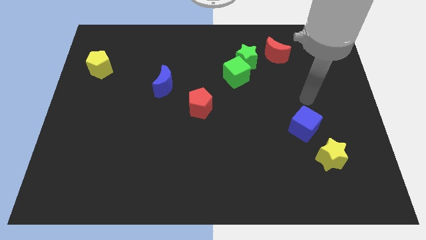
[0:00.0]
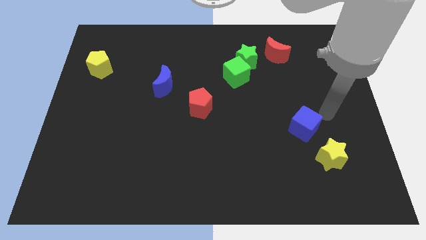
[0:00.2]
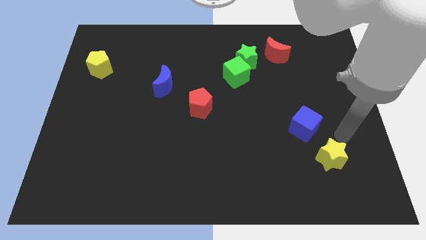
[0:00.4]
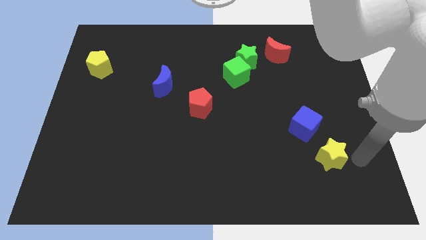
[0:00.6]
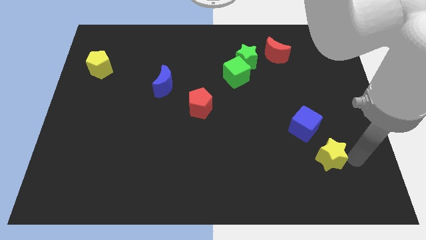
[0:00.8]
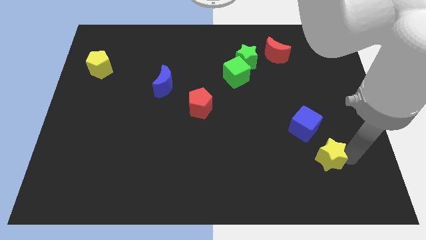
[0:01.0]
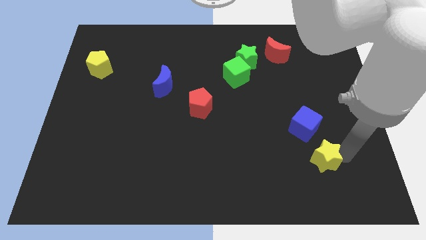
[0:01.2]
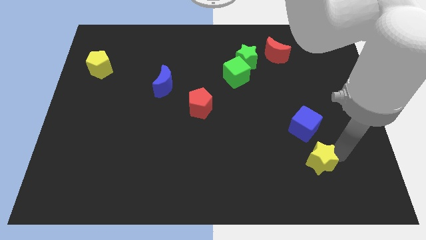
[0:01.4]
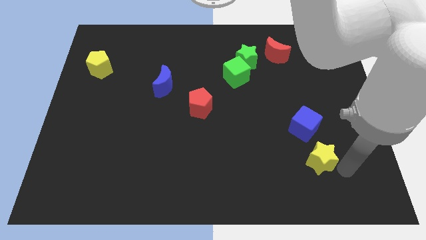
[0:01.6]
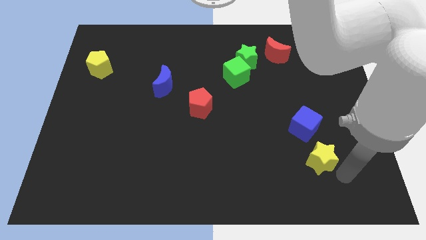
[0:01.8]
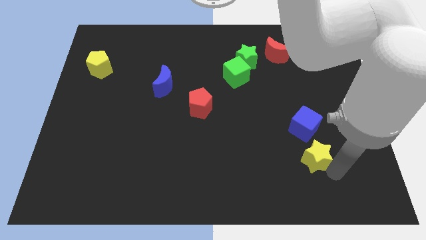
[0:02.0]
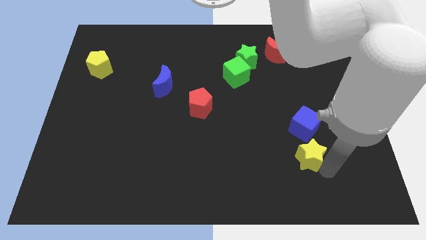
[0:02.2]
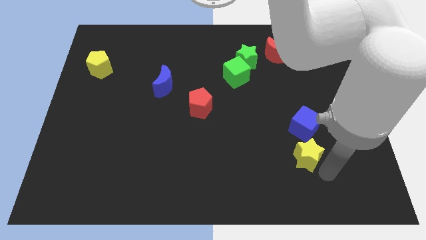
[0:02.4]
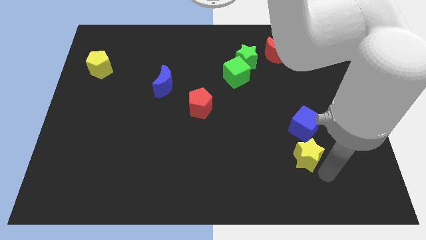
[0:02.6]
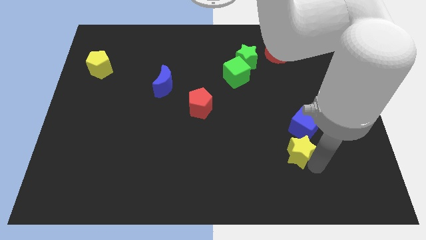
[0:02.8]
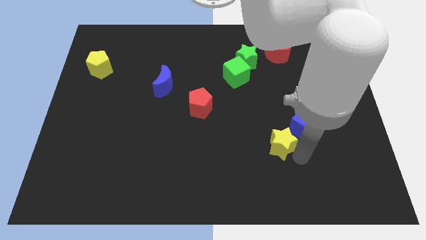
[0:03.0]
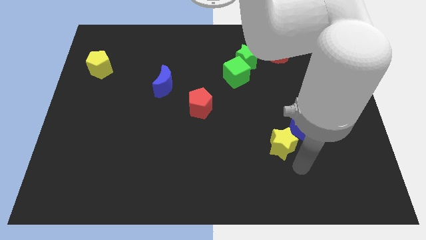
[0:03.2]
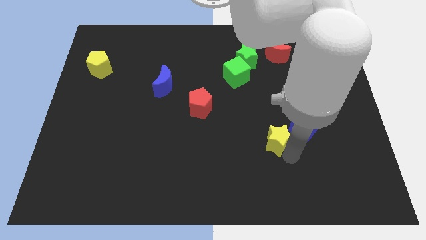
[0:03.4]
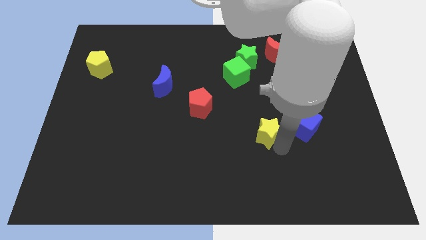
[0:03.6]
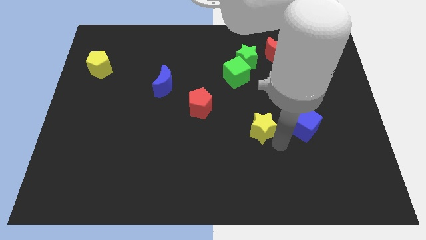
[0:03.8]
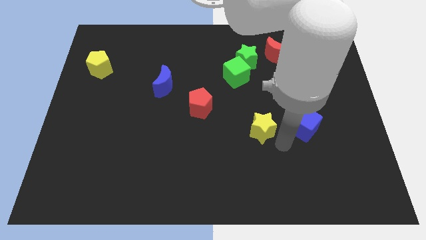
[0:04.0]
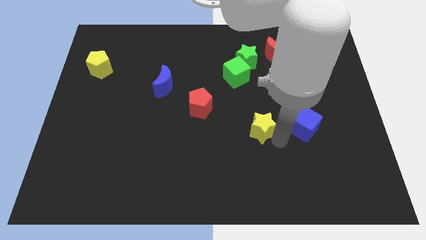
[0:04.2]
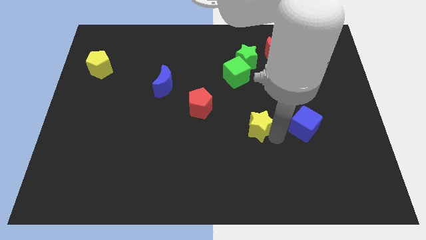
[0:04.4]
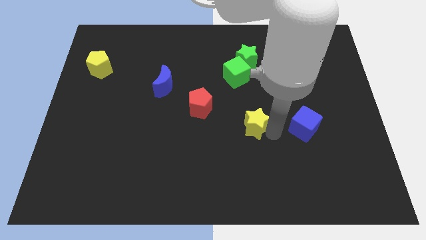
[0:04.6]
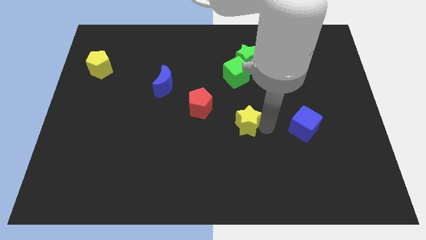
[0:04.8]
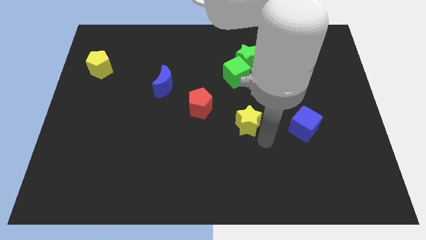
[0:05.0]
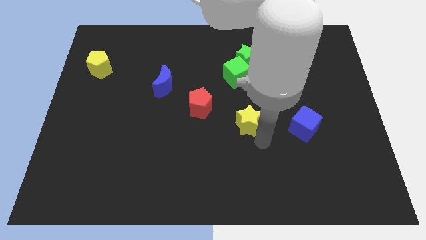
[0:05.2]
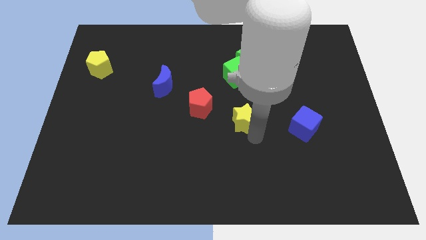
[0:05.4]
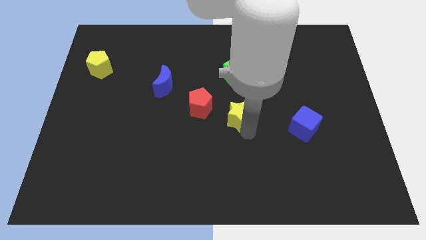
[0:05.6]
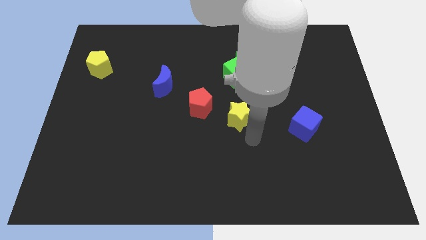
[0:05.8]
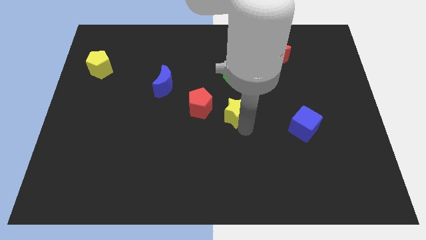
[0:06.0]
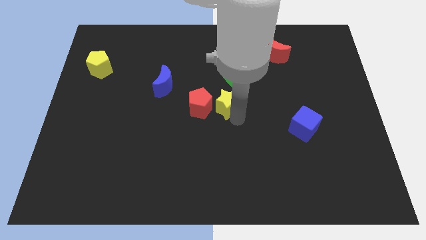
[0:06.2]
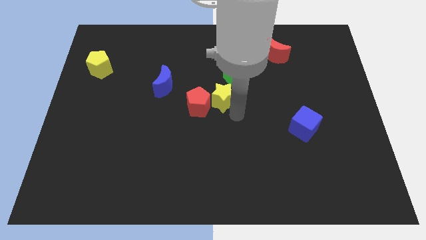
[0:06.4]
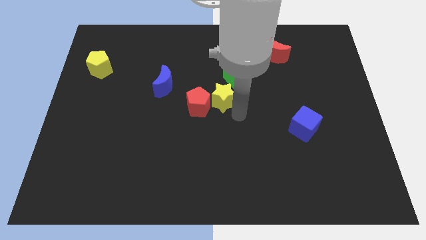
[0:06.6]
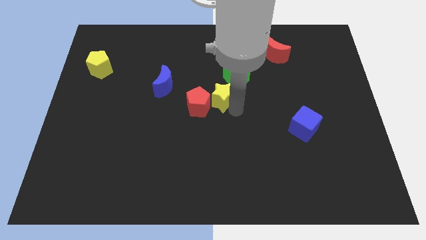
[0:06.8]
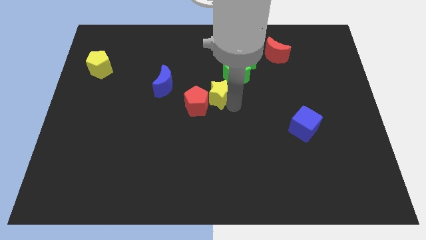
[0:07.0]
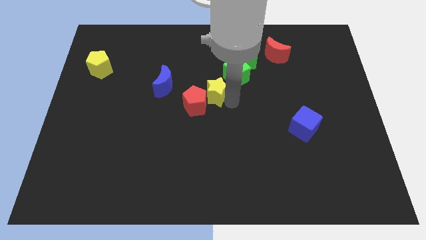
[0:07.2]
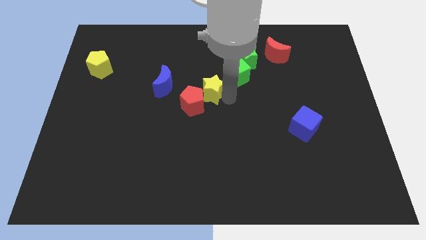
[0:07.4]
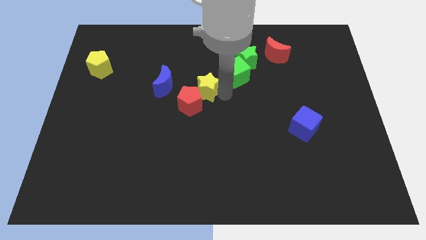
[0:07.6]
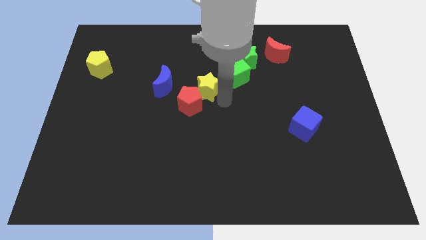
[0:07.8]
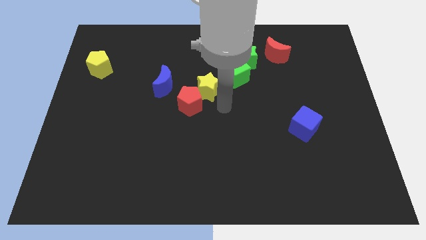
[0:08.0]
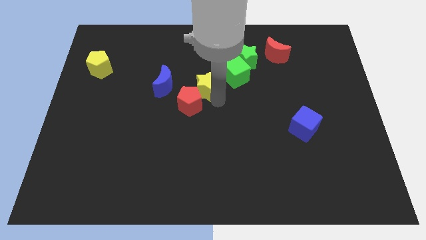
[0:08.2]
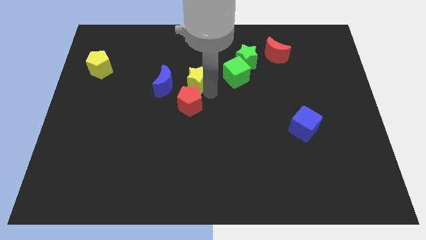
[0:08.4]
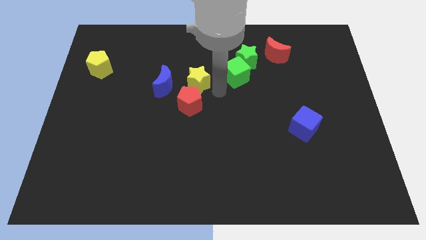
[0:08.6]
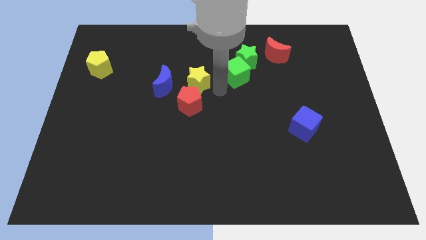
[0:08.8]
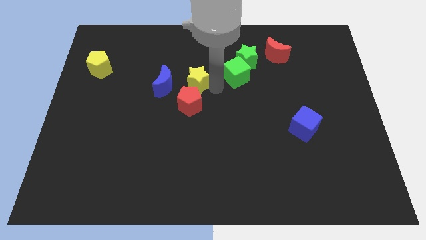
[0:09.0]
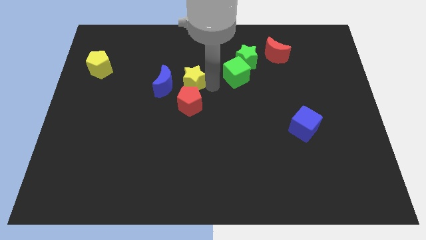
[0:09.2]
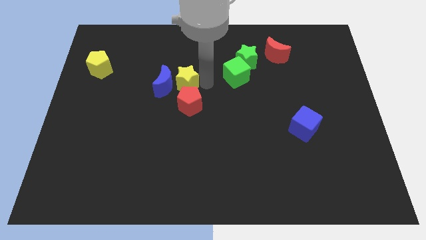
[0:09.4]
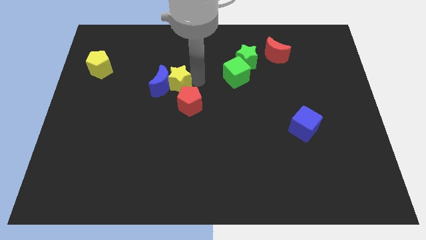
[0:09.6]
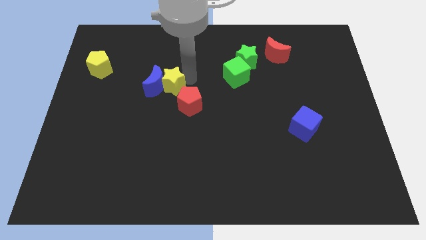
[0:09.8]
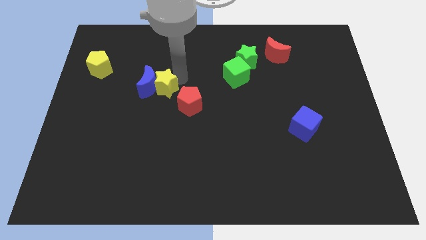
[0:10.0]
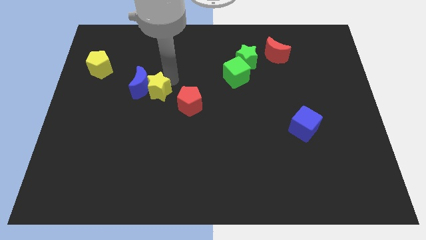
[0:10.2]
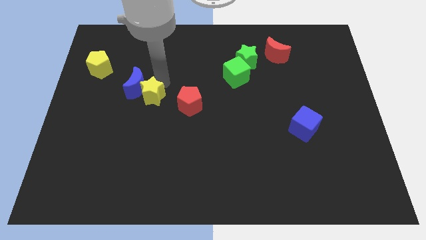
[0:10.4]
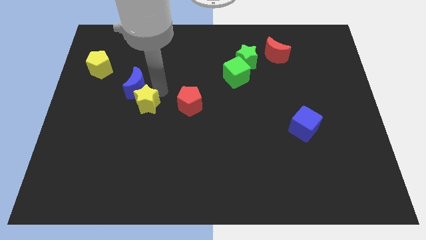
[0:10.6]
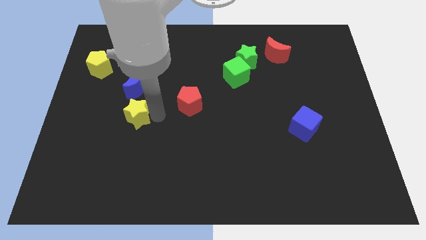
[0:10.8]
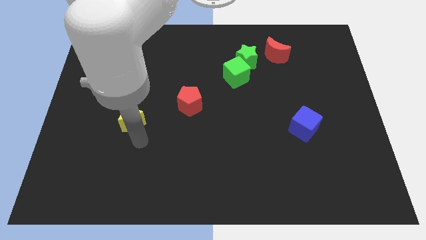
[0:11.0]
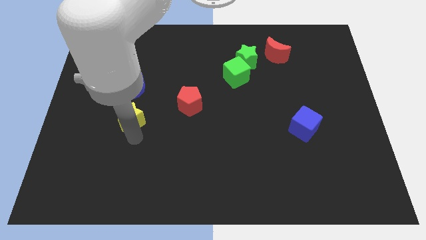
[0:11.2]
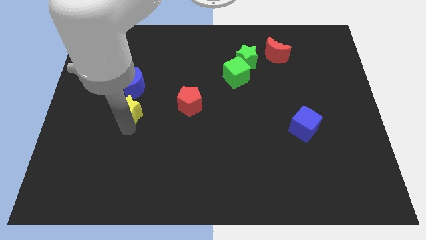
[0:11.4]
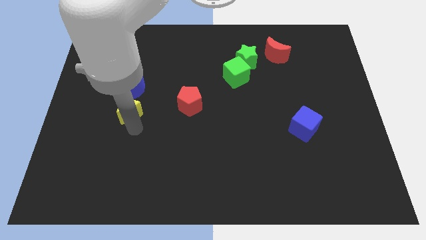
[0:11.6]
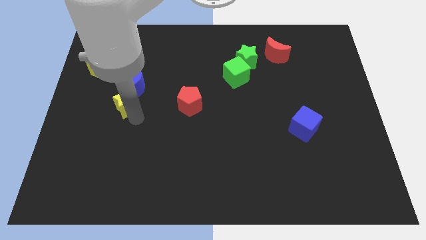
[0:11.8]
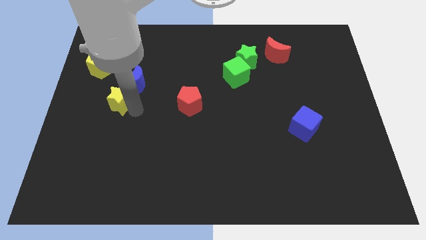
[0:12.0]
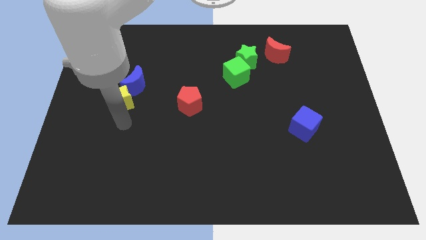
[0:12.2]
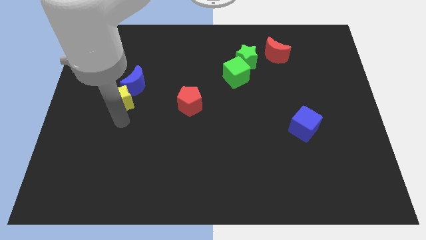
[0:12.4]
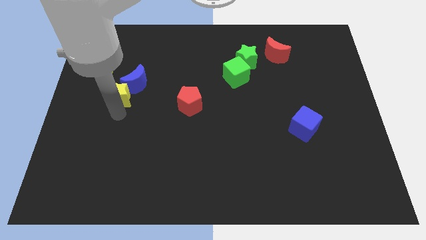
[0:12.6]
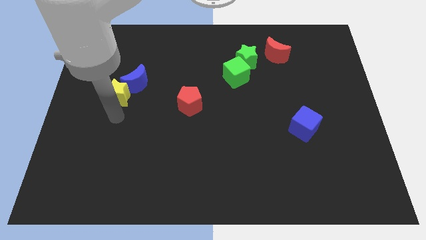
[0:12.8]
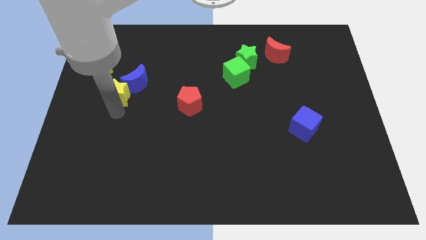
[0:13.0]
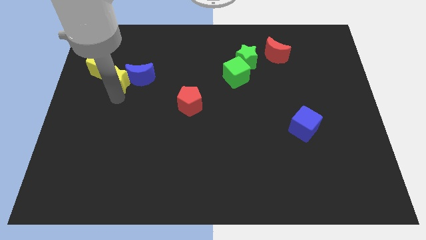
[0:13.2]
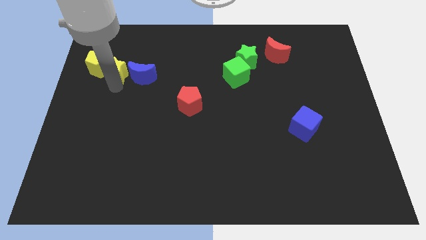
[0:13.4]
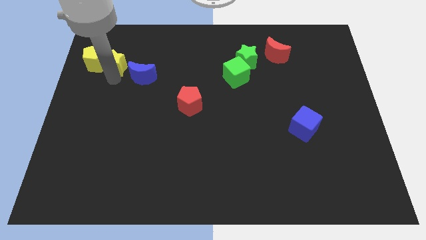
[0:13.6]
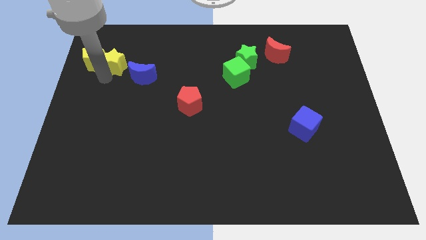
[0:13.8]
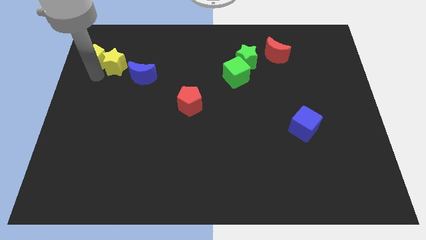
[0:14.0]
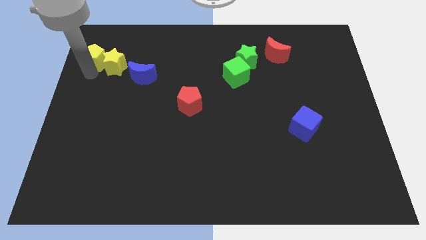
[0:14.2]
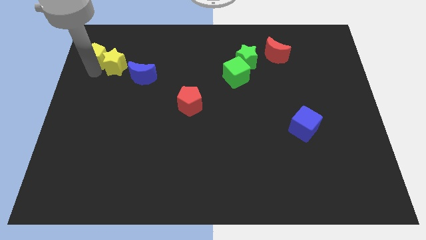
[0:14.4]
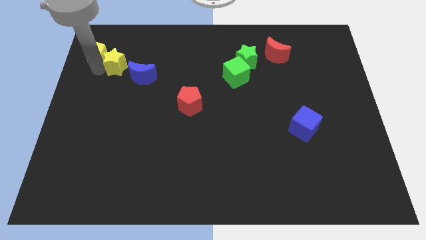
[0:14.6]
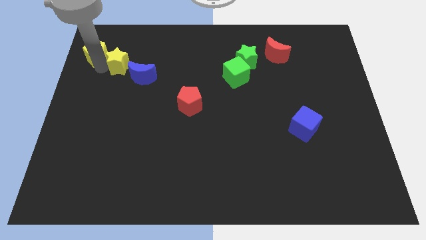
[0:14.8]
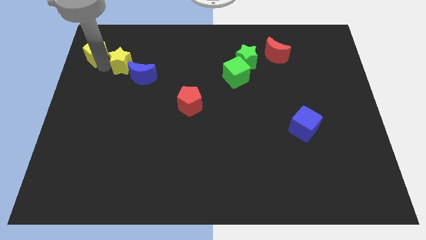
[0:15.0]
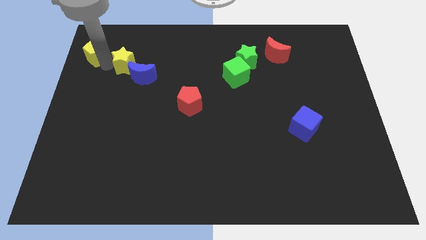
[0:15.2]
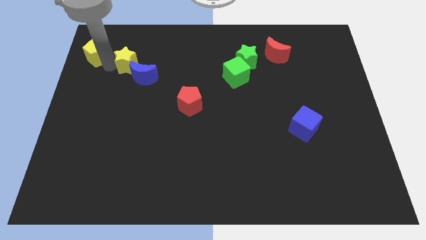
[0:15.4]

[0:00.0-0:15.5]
push the yellow star to the top left of the blue moon
